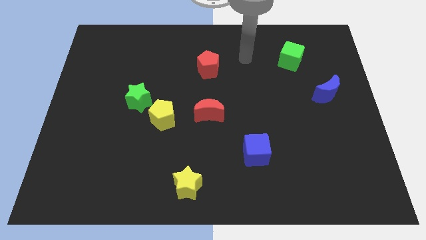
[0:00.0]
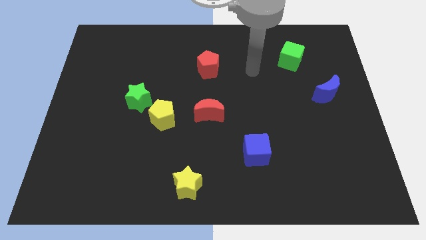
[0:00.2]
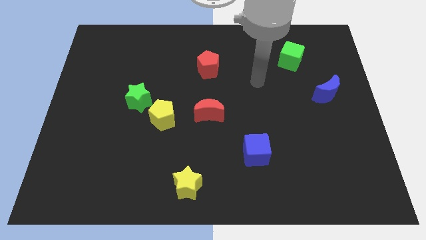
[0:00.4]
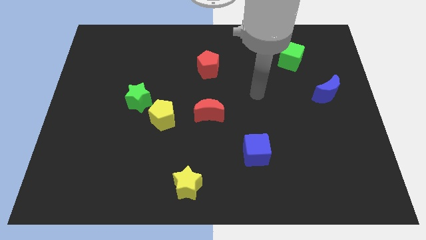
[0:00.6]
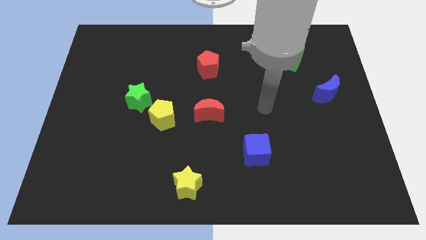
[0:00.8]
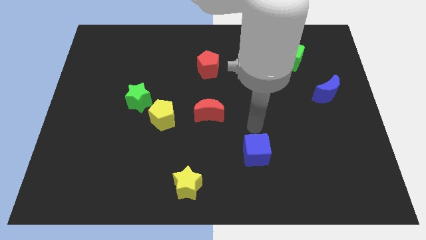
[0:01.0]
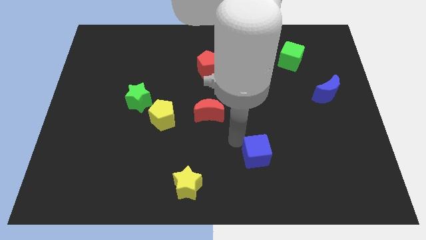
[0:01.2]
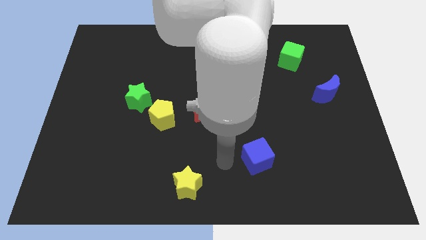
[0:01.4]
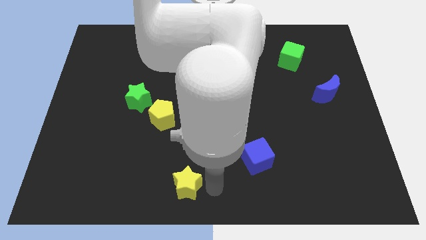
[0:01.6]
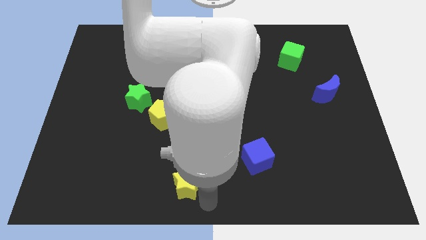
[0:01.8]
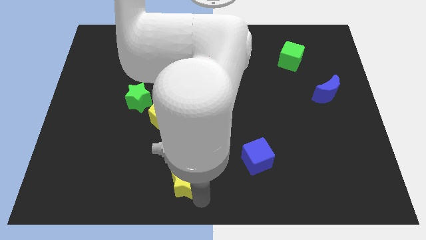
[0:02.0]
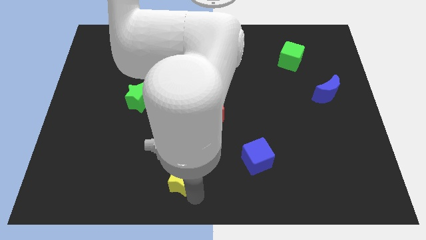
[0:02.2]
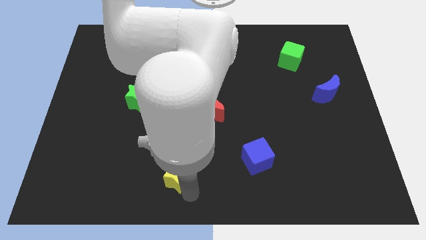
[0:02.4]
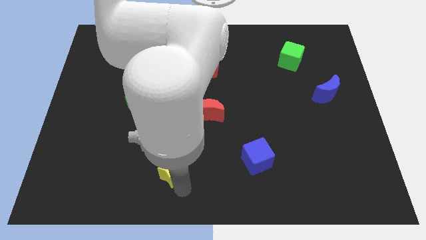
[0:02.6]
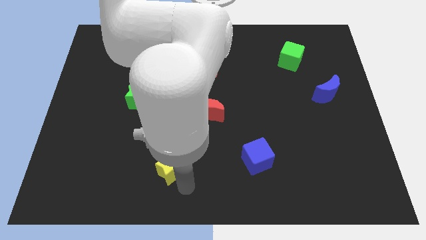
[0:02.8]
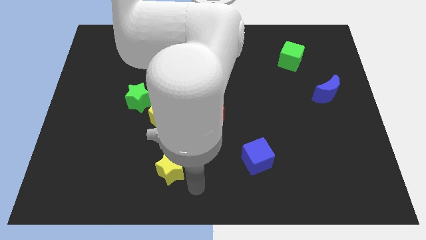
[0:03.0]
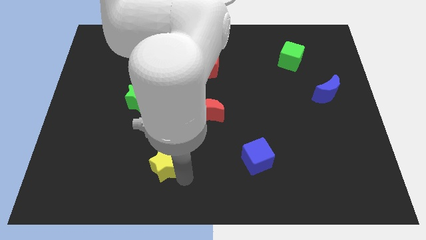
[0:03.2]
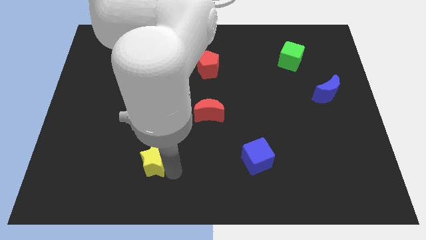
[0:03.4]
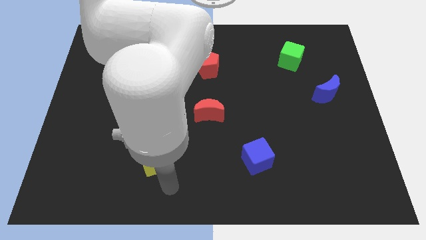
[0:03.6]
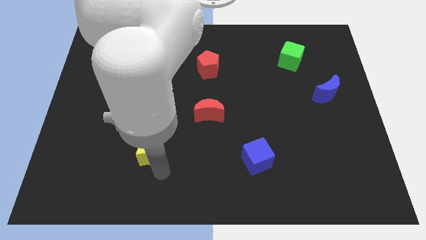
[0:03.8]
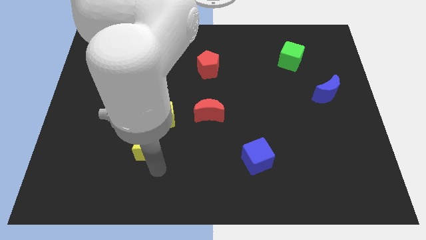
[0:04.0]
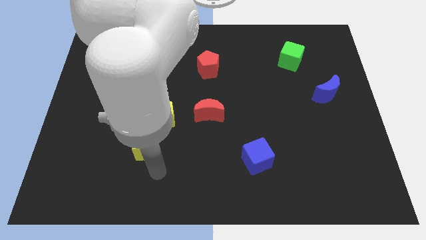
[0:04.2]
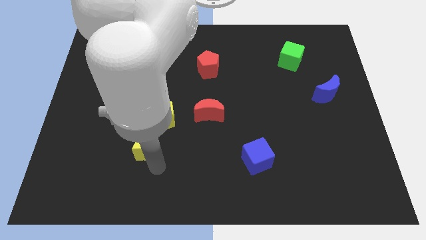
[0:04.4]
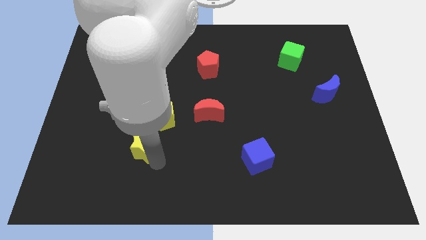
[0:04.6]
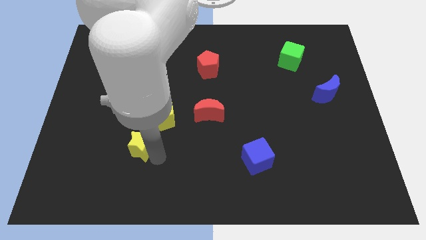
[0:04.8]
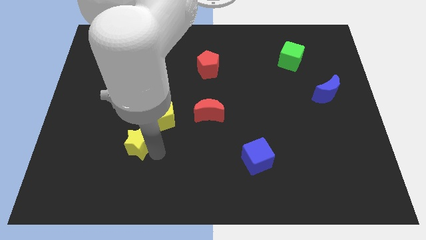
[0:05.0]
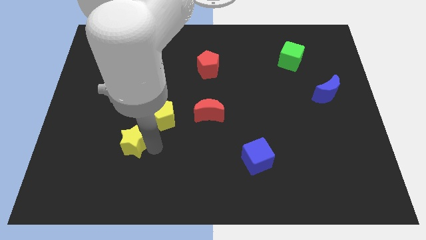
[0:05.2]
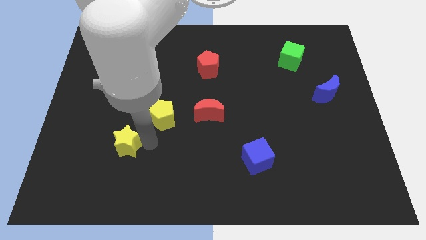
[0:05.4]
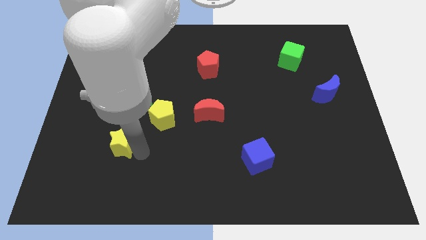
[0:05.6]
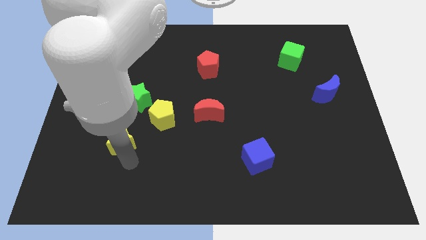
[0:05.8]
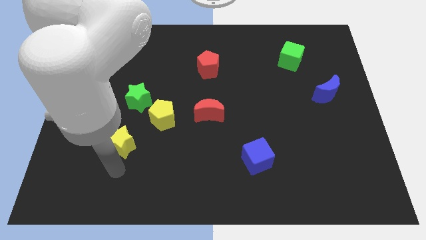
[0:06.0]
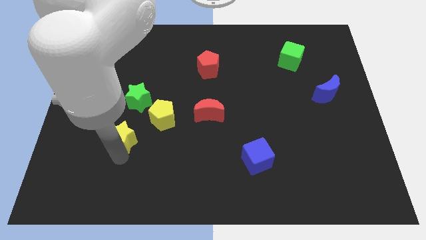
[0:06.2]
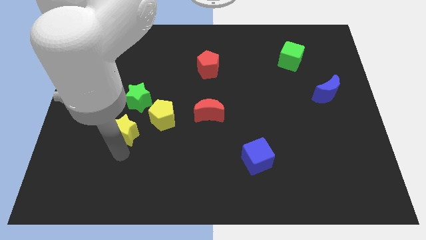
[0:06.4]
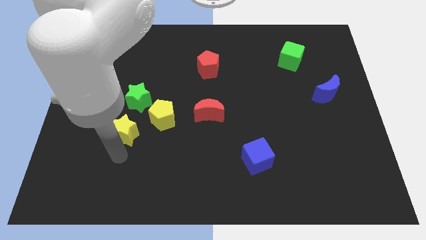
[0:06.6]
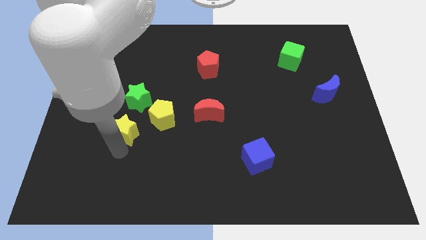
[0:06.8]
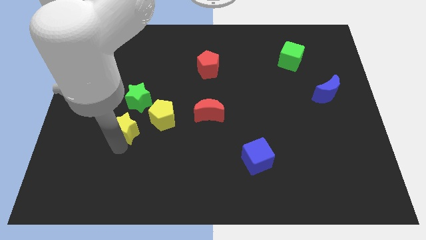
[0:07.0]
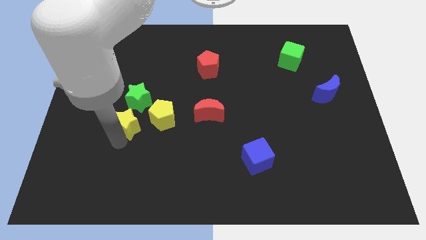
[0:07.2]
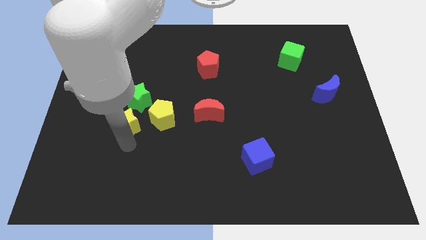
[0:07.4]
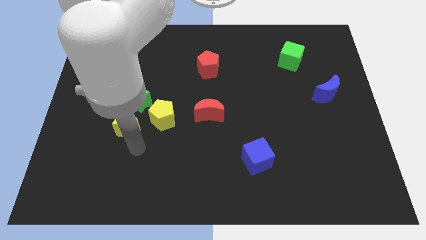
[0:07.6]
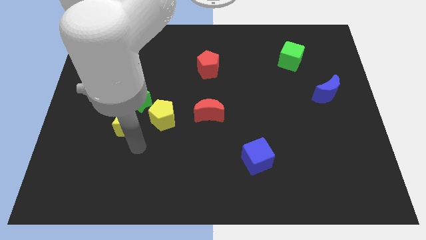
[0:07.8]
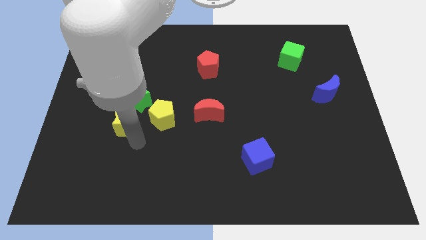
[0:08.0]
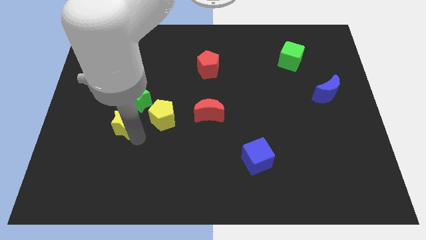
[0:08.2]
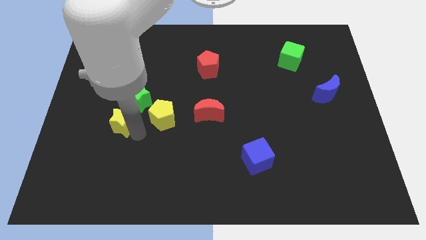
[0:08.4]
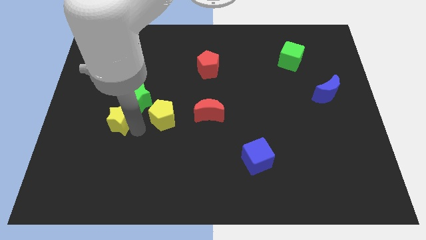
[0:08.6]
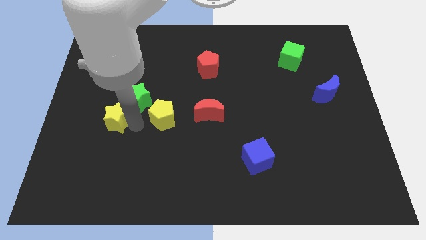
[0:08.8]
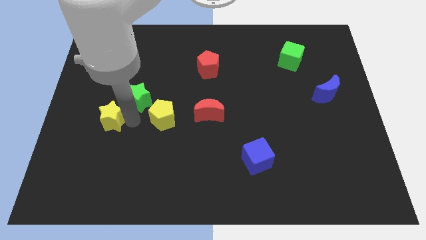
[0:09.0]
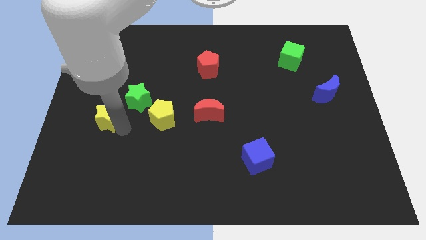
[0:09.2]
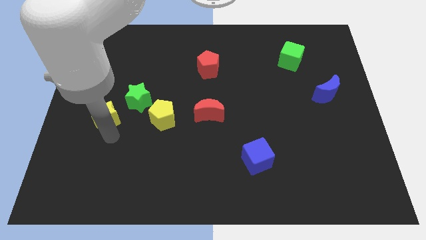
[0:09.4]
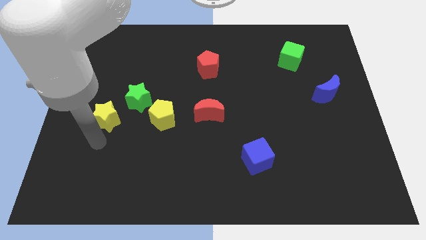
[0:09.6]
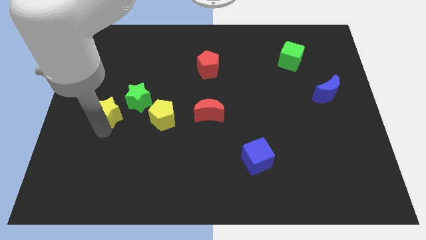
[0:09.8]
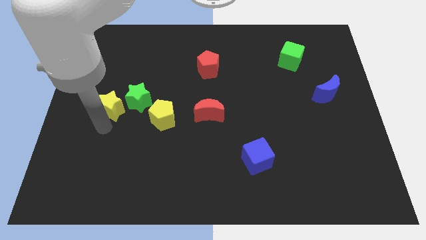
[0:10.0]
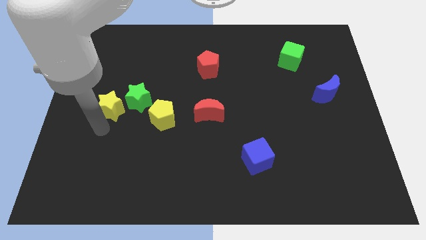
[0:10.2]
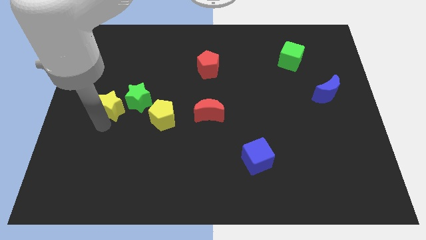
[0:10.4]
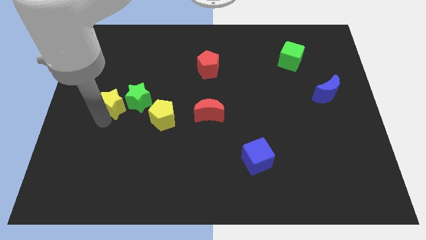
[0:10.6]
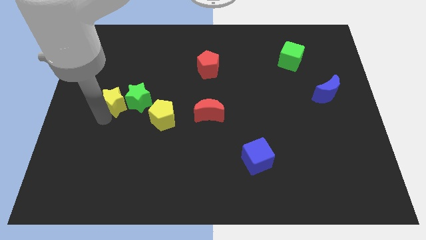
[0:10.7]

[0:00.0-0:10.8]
slide the yellow star to the top left of the green star

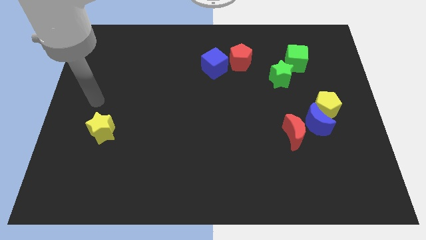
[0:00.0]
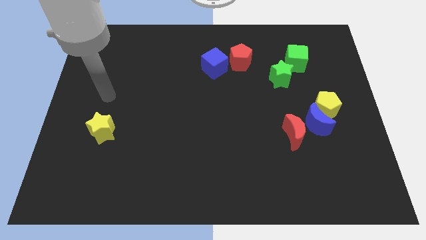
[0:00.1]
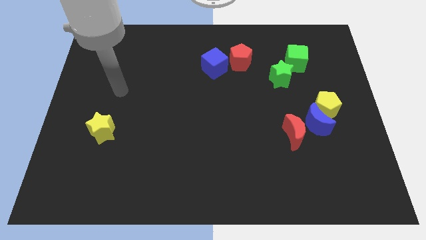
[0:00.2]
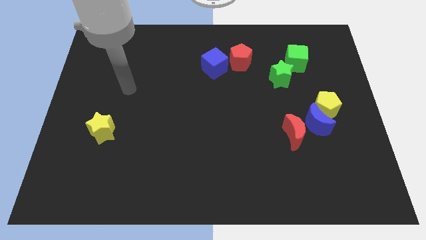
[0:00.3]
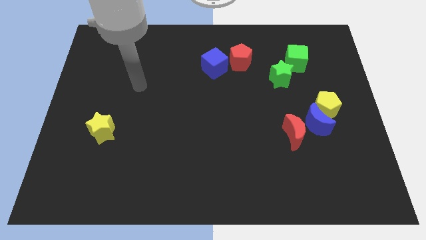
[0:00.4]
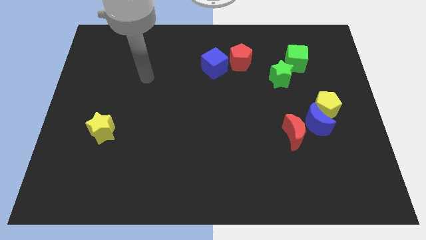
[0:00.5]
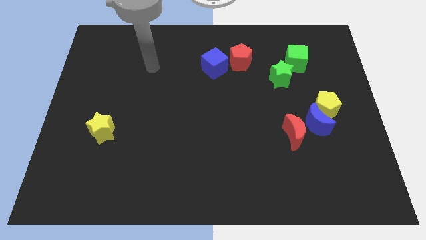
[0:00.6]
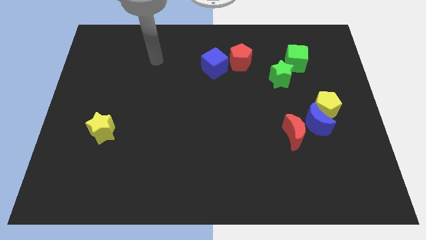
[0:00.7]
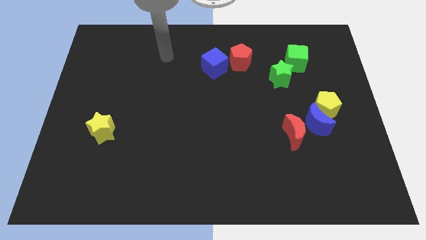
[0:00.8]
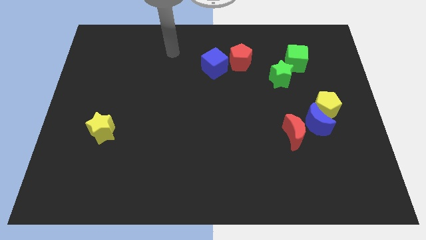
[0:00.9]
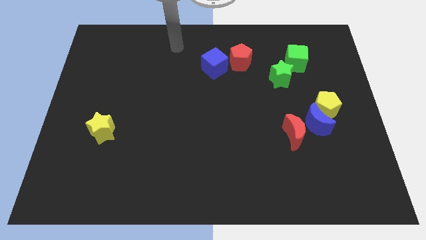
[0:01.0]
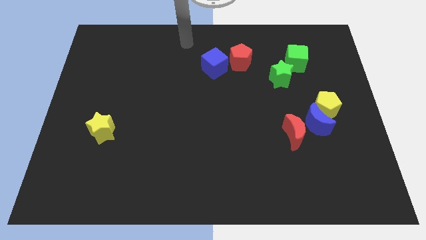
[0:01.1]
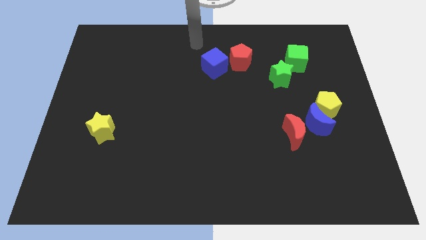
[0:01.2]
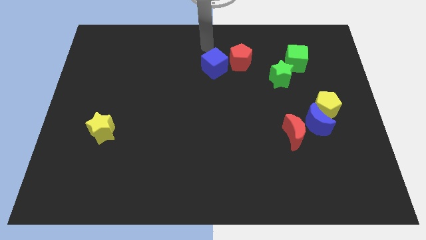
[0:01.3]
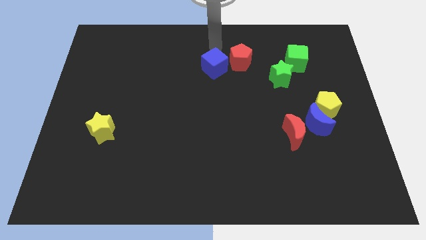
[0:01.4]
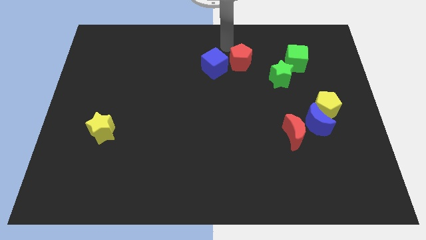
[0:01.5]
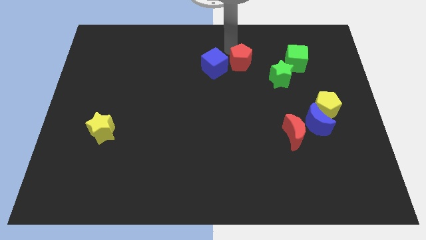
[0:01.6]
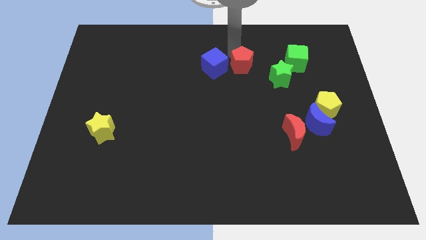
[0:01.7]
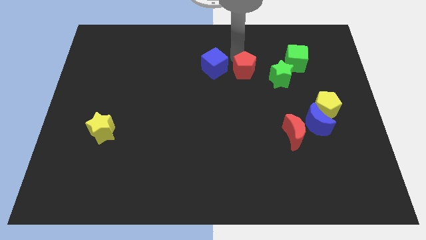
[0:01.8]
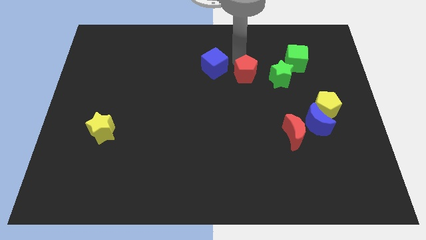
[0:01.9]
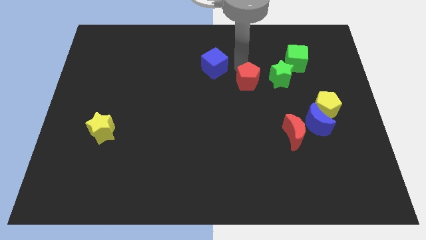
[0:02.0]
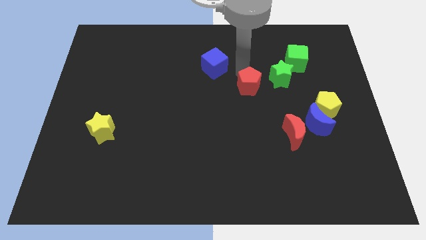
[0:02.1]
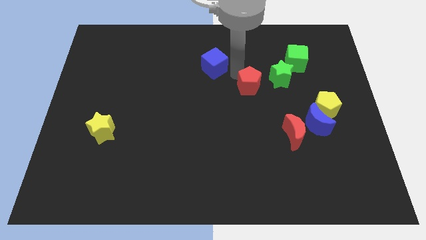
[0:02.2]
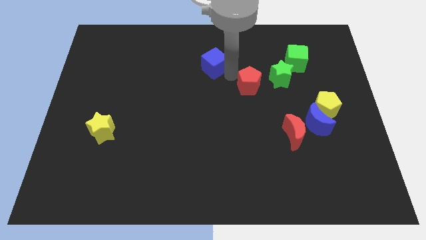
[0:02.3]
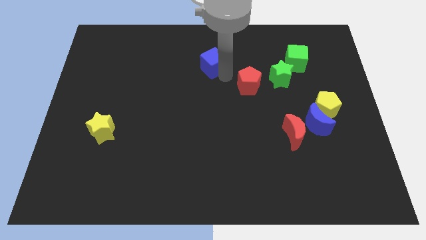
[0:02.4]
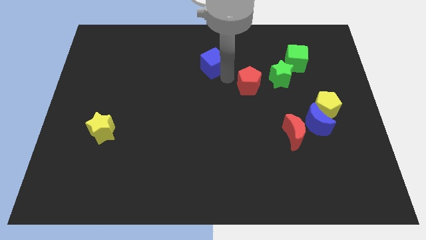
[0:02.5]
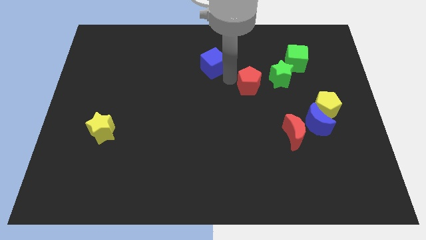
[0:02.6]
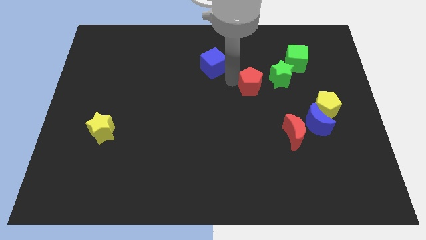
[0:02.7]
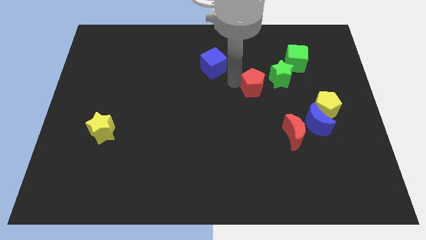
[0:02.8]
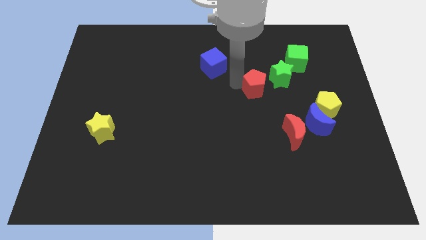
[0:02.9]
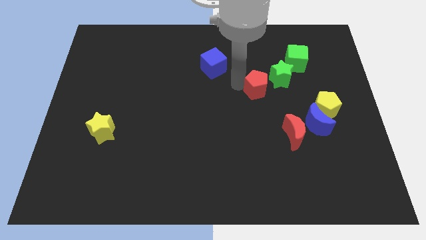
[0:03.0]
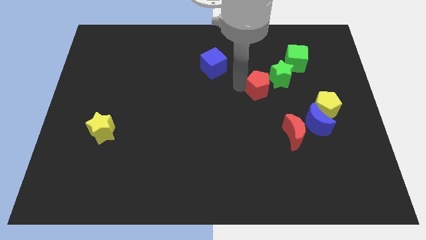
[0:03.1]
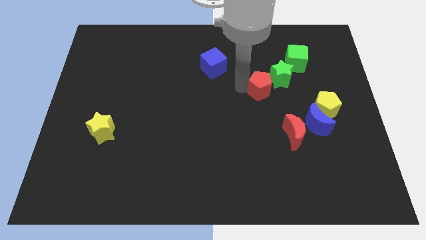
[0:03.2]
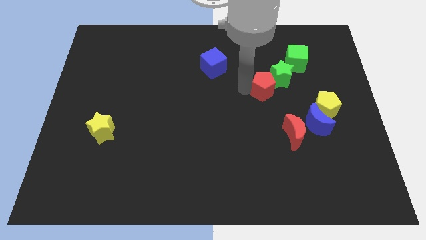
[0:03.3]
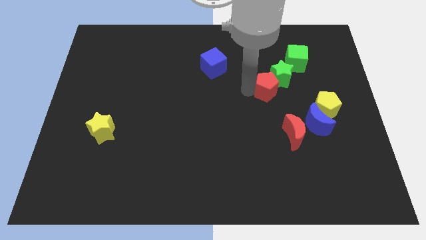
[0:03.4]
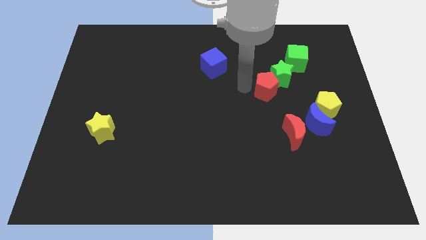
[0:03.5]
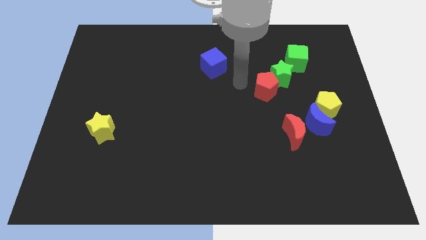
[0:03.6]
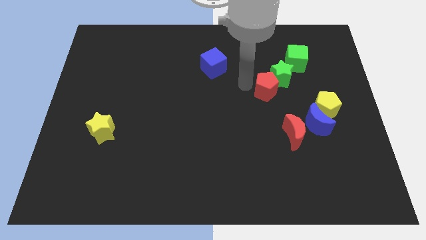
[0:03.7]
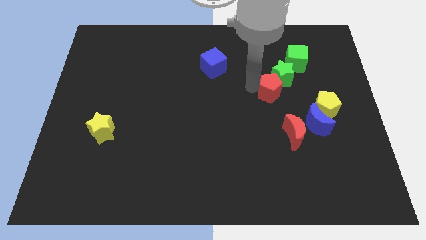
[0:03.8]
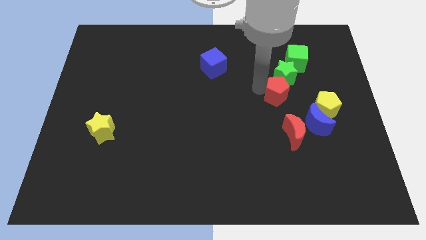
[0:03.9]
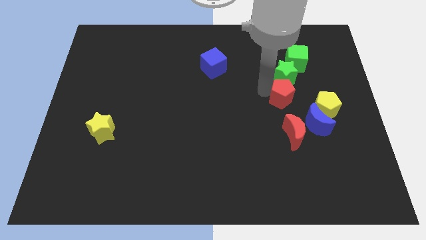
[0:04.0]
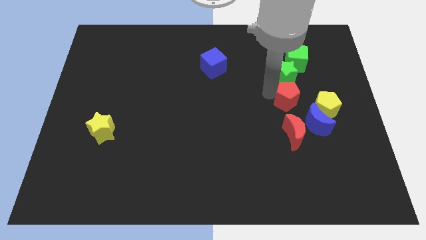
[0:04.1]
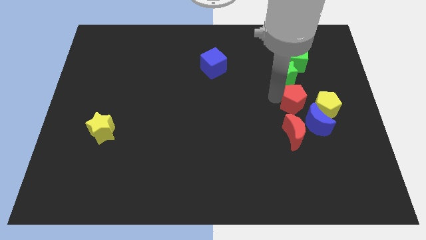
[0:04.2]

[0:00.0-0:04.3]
slide the red pentagon to the top side of the blue moon
